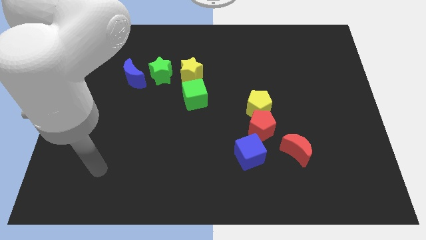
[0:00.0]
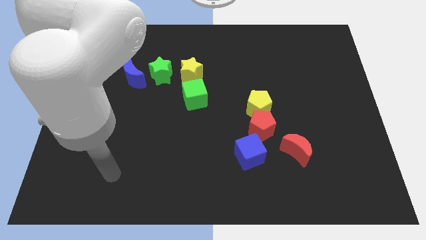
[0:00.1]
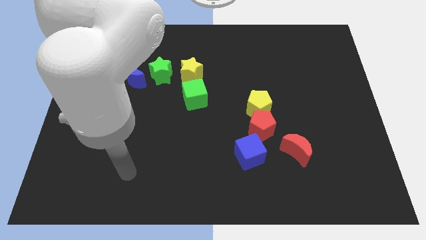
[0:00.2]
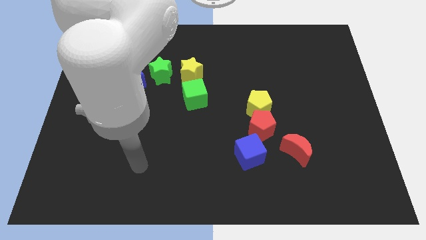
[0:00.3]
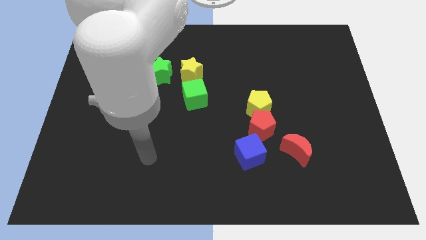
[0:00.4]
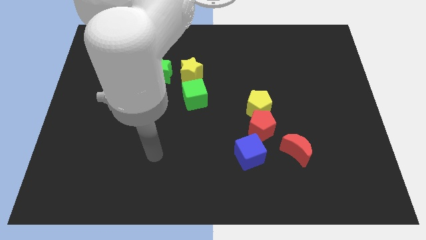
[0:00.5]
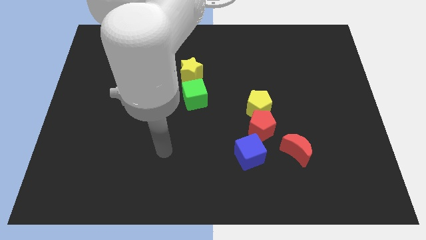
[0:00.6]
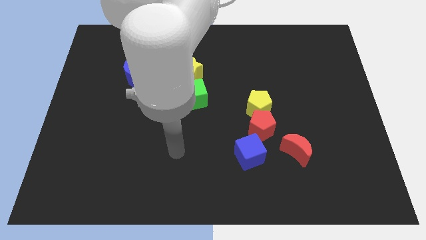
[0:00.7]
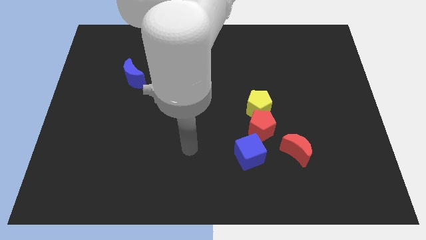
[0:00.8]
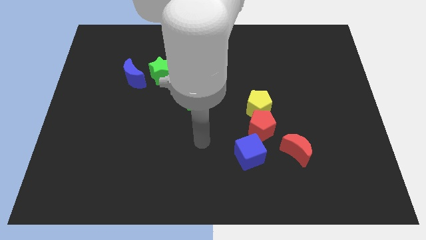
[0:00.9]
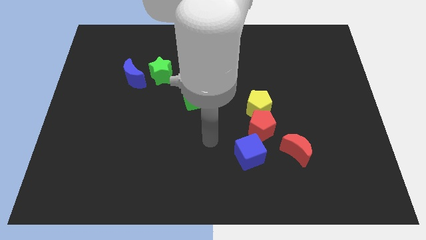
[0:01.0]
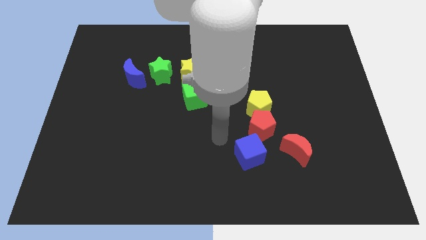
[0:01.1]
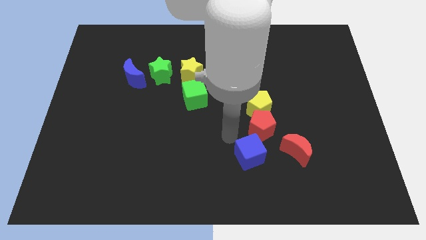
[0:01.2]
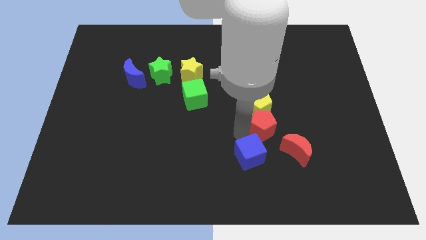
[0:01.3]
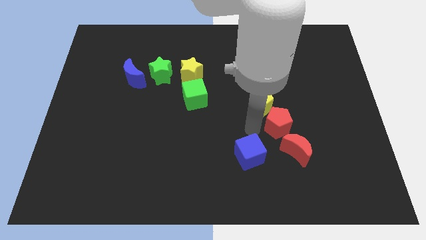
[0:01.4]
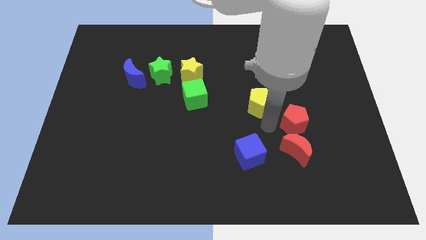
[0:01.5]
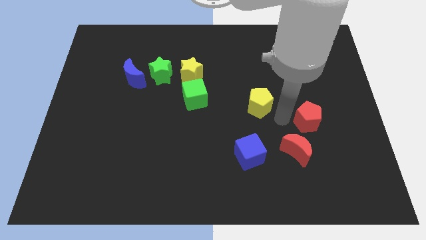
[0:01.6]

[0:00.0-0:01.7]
move the yellow pentagon away from the red pentagon

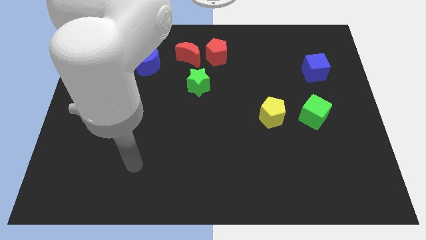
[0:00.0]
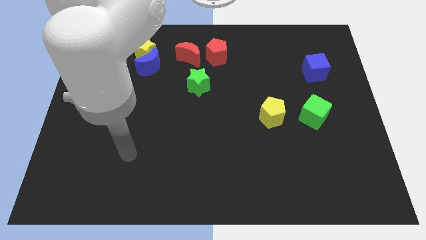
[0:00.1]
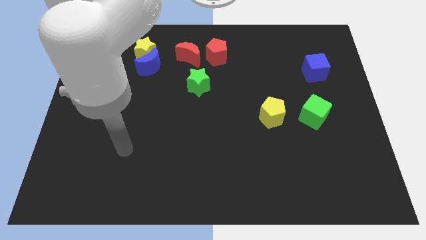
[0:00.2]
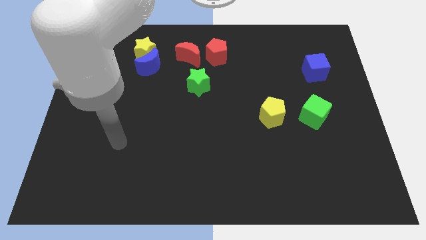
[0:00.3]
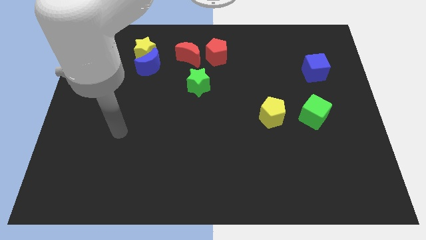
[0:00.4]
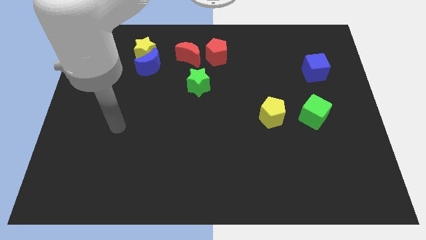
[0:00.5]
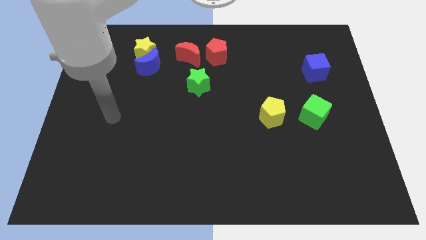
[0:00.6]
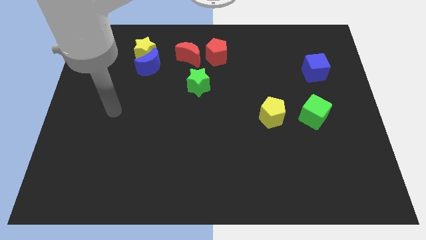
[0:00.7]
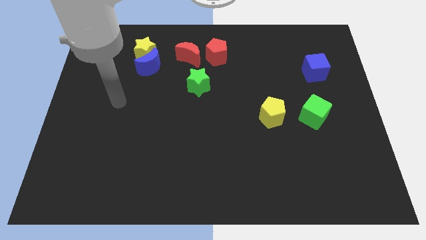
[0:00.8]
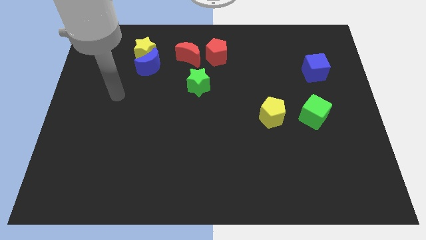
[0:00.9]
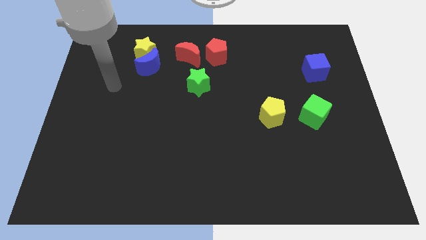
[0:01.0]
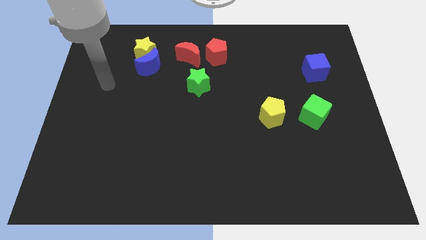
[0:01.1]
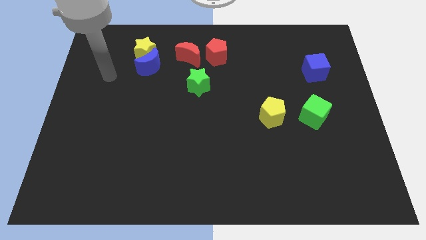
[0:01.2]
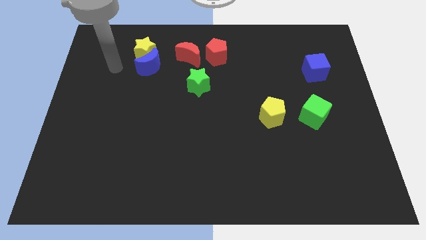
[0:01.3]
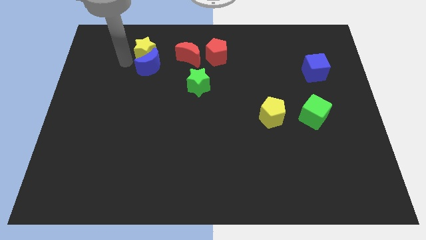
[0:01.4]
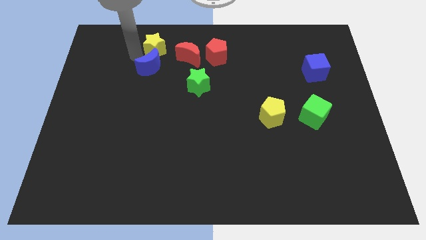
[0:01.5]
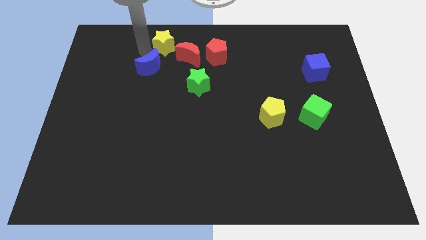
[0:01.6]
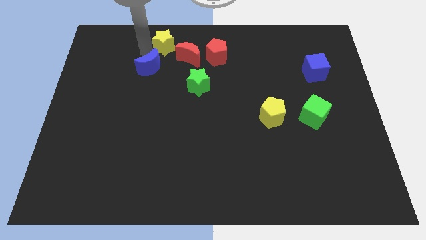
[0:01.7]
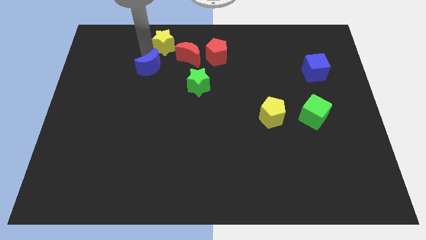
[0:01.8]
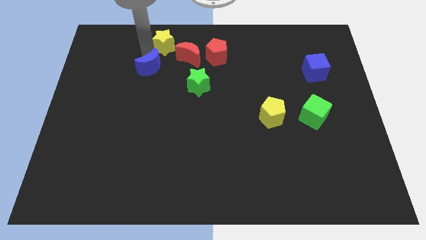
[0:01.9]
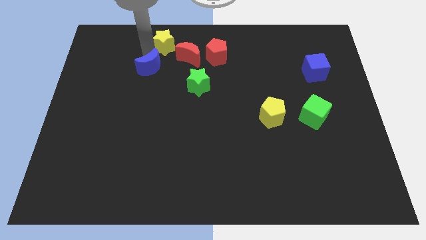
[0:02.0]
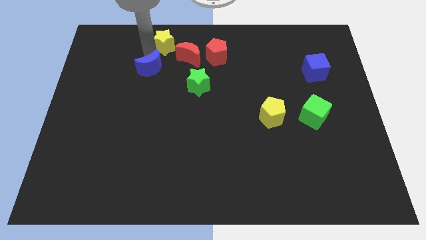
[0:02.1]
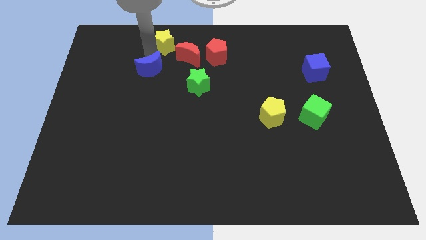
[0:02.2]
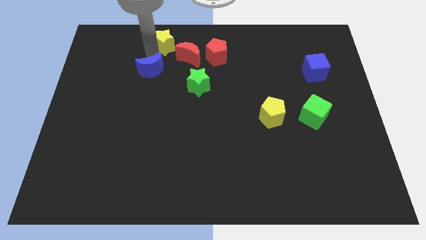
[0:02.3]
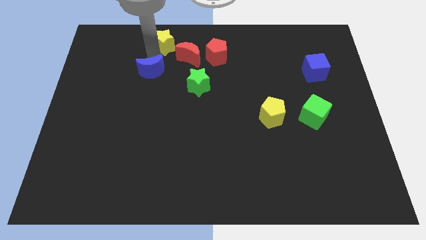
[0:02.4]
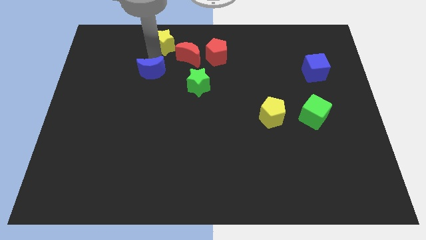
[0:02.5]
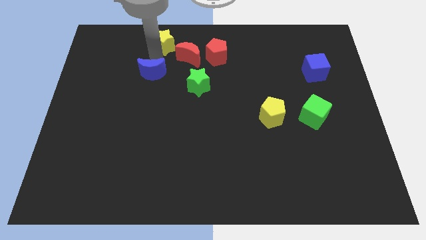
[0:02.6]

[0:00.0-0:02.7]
pull the blue moon apart from the yellow star

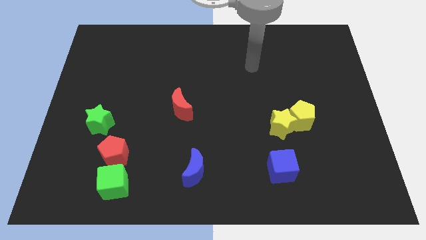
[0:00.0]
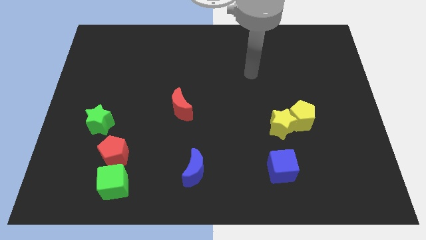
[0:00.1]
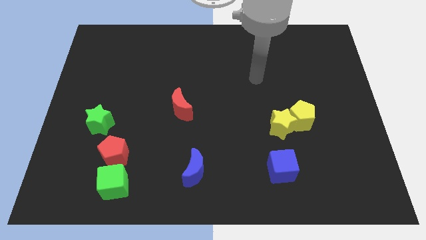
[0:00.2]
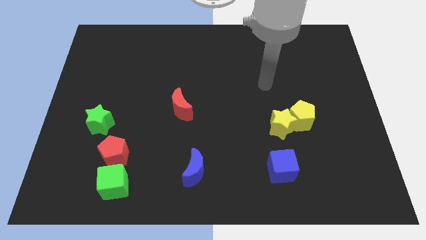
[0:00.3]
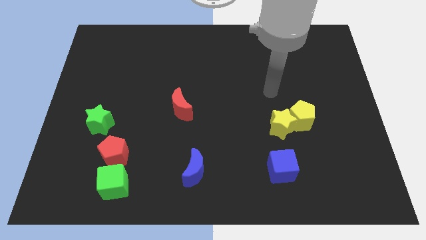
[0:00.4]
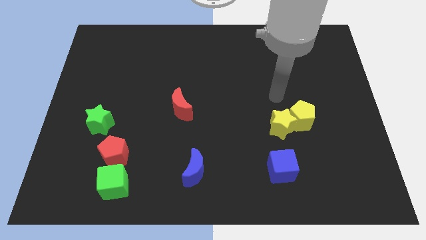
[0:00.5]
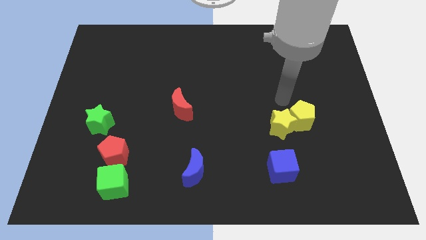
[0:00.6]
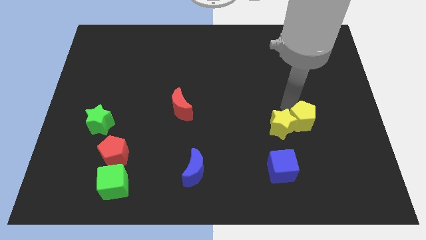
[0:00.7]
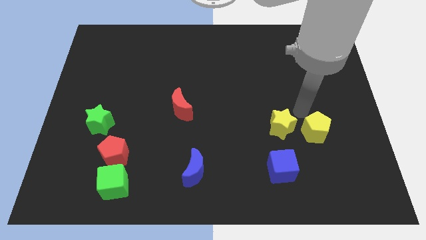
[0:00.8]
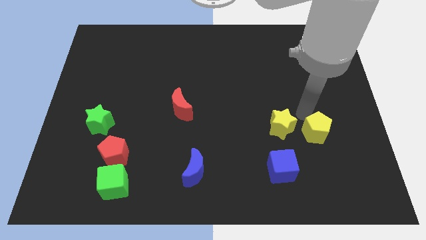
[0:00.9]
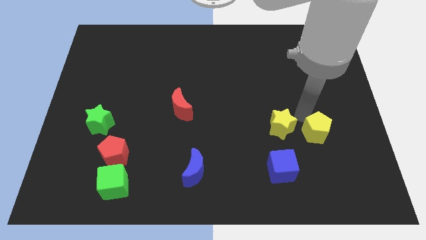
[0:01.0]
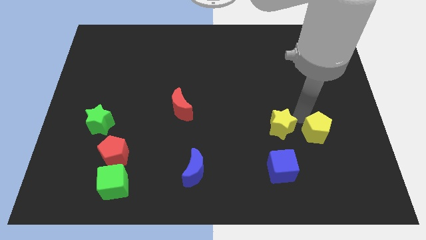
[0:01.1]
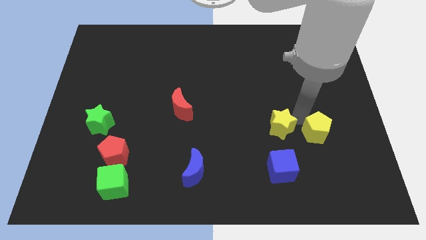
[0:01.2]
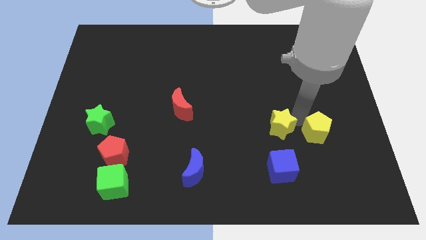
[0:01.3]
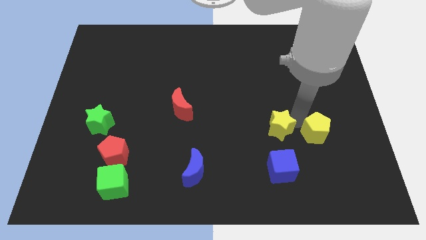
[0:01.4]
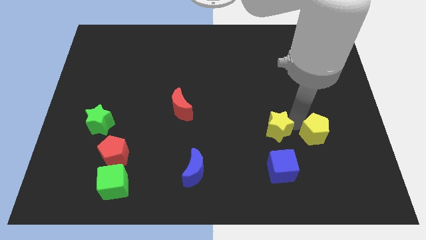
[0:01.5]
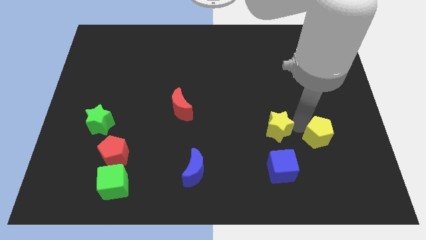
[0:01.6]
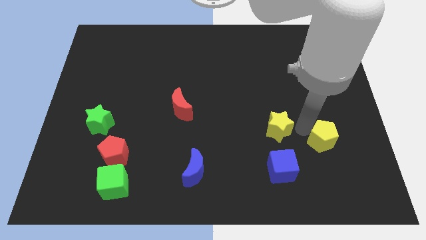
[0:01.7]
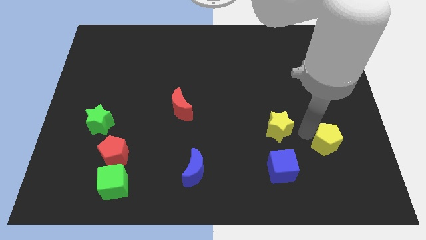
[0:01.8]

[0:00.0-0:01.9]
move the yellow star away from the yellow pentagon

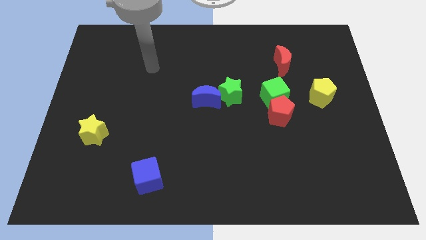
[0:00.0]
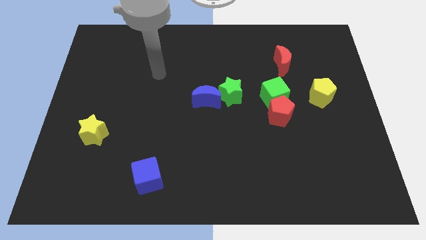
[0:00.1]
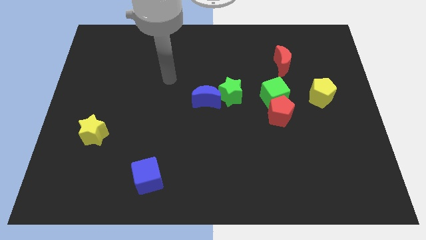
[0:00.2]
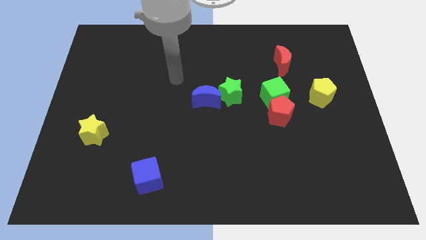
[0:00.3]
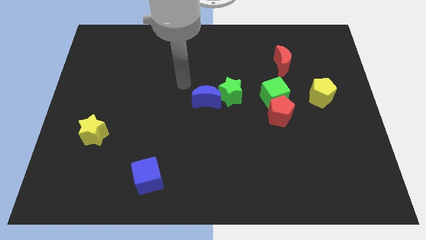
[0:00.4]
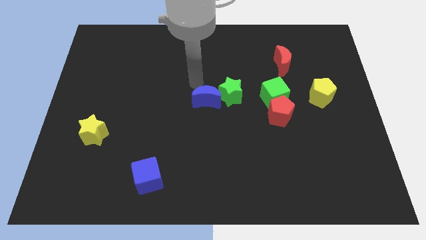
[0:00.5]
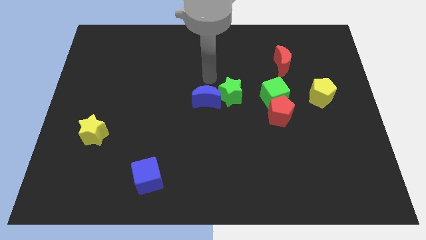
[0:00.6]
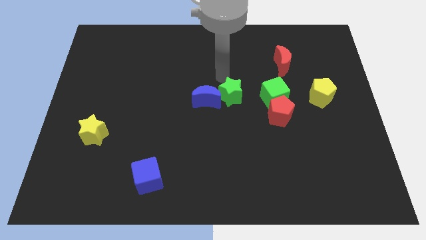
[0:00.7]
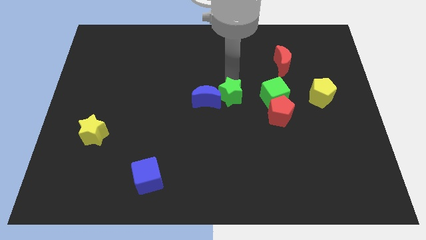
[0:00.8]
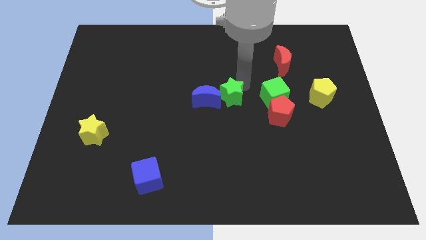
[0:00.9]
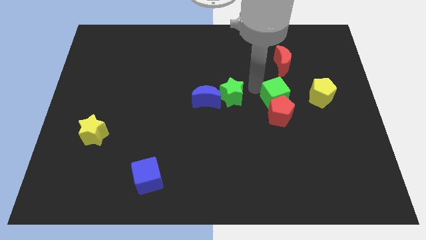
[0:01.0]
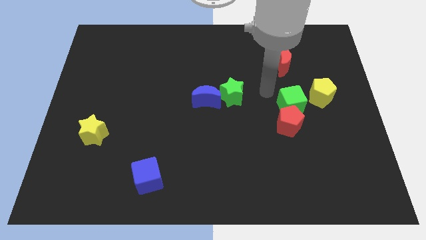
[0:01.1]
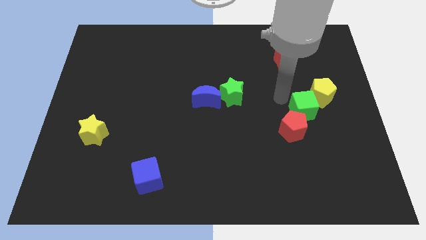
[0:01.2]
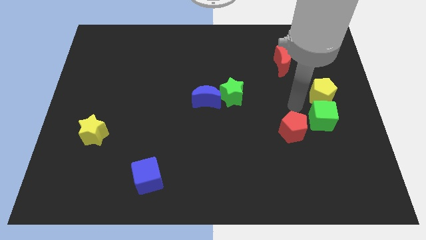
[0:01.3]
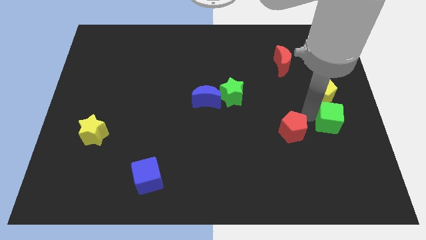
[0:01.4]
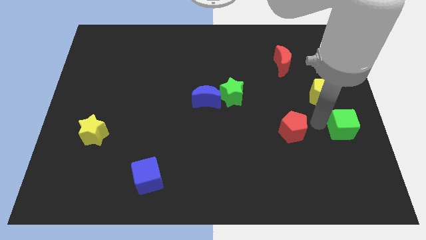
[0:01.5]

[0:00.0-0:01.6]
pull the red pentagon apart from the green cube

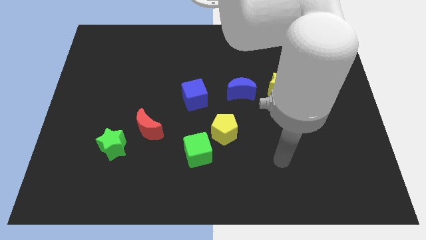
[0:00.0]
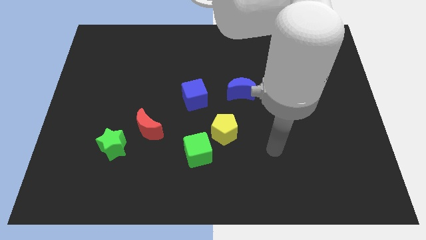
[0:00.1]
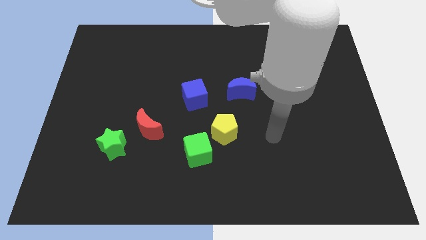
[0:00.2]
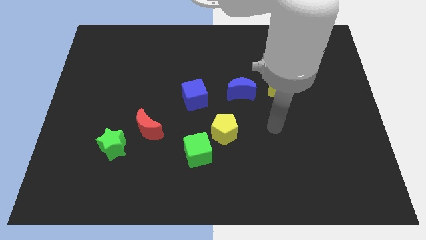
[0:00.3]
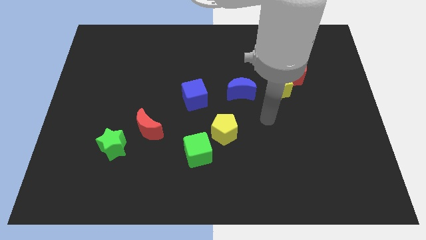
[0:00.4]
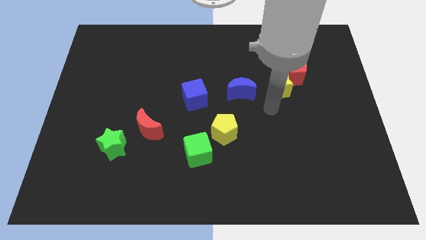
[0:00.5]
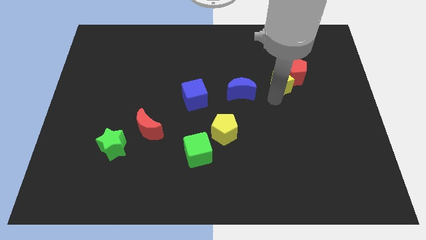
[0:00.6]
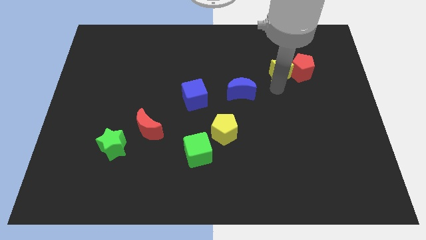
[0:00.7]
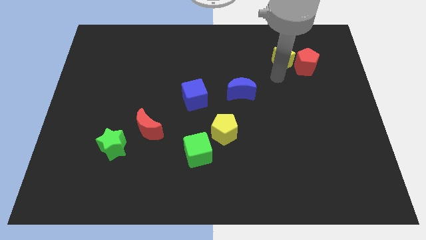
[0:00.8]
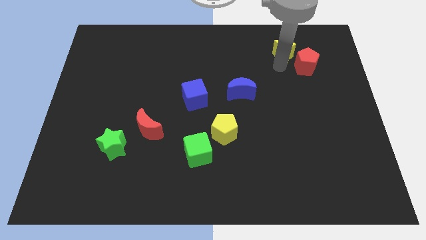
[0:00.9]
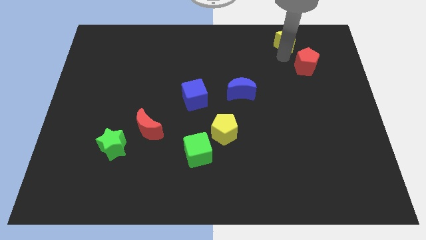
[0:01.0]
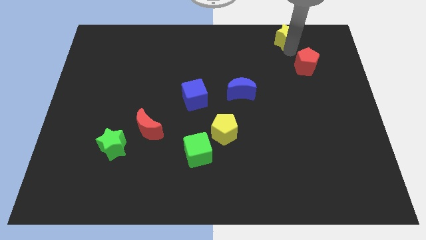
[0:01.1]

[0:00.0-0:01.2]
separate the red pentagon from the yellow star
